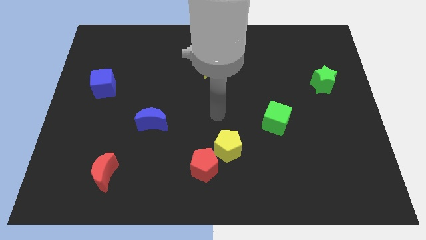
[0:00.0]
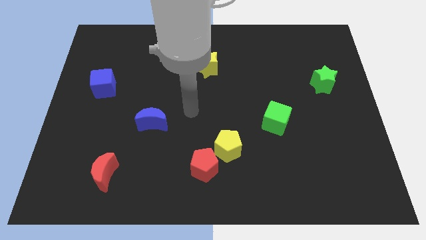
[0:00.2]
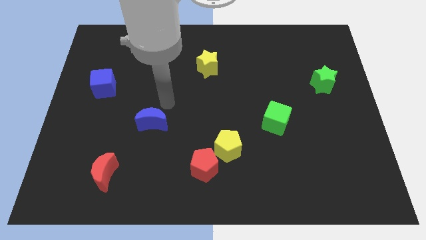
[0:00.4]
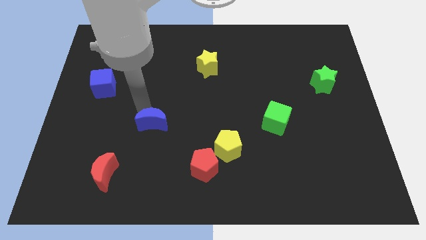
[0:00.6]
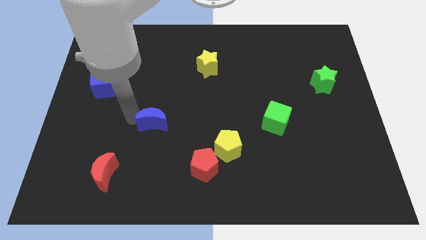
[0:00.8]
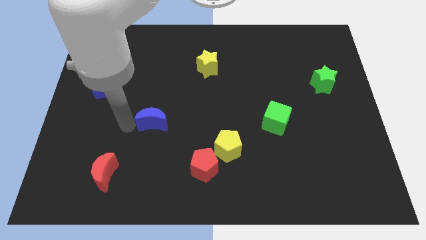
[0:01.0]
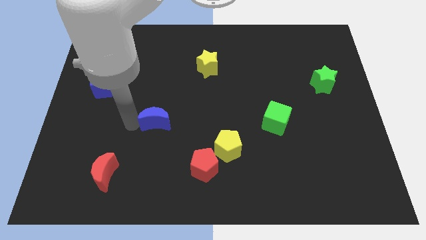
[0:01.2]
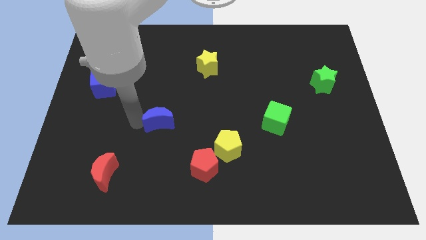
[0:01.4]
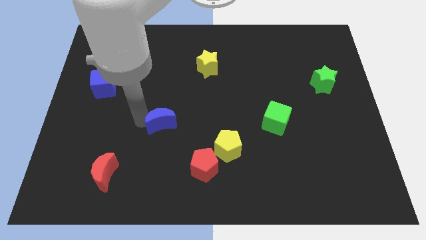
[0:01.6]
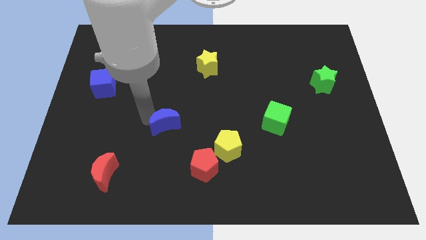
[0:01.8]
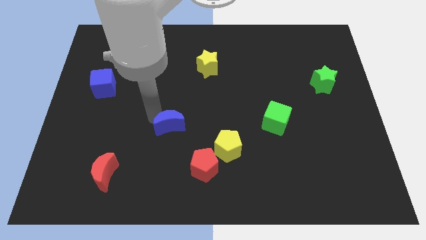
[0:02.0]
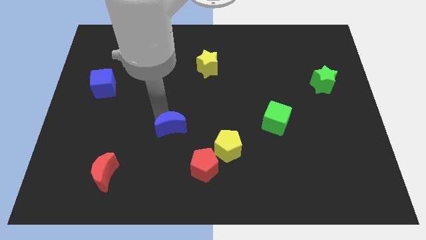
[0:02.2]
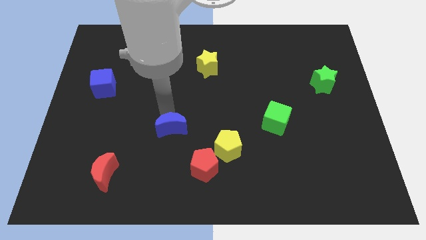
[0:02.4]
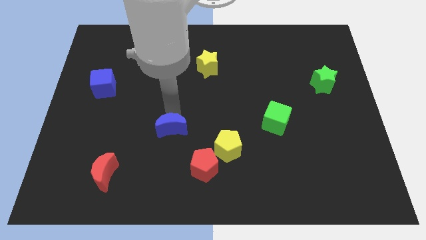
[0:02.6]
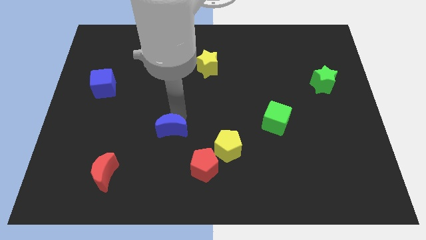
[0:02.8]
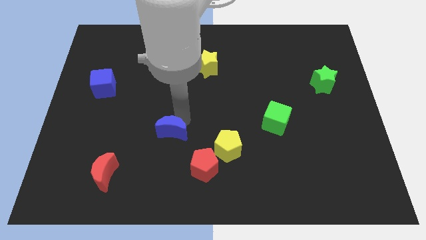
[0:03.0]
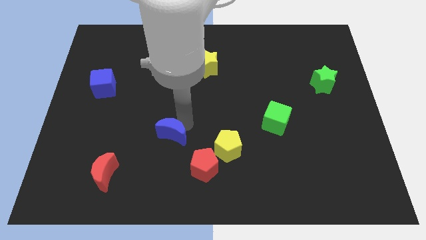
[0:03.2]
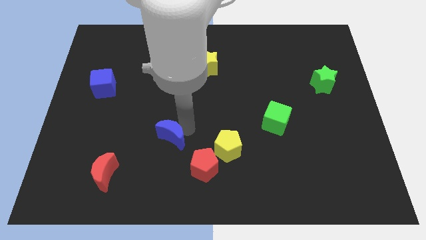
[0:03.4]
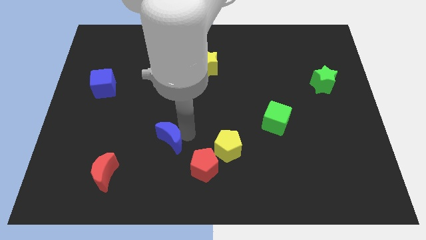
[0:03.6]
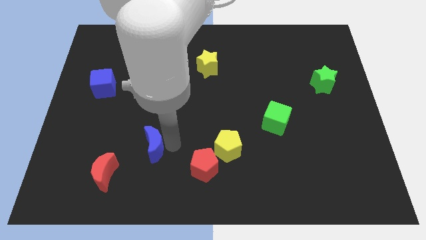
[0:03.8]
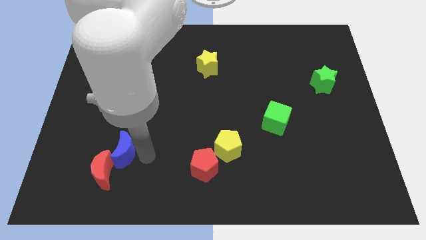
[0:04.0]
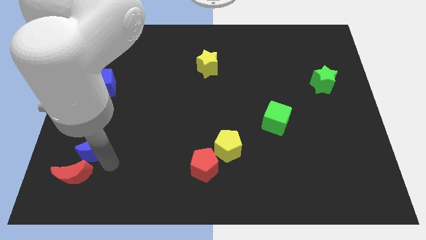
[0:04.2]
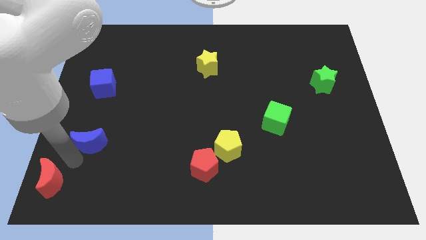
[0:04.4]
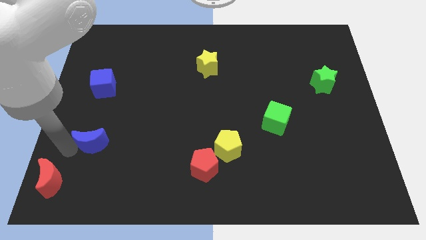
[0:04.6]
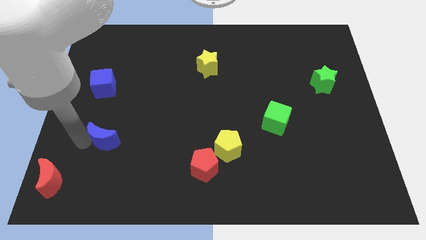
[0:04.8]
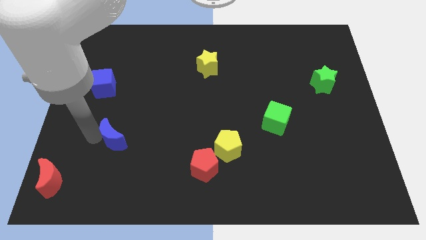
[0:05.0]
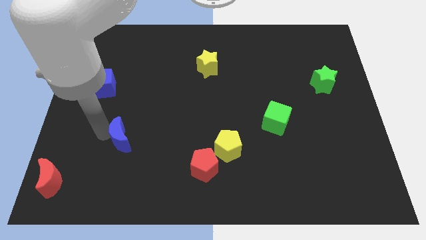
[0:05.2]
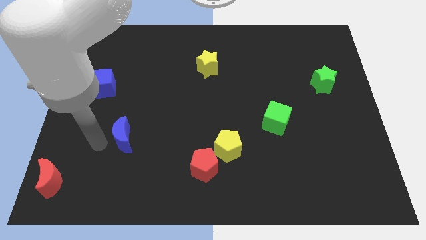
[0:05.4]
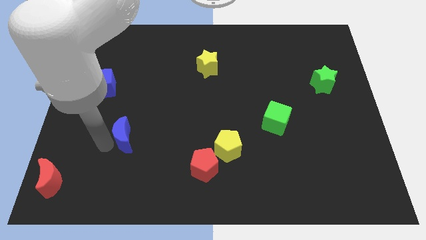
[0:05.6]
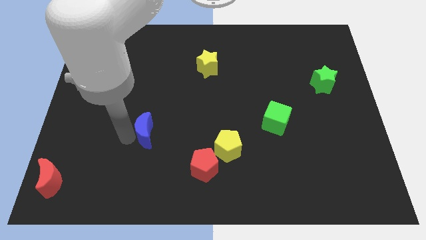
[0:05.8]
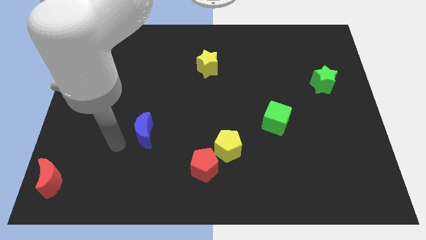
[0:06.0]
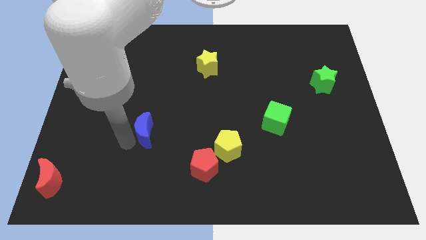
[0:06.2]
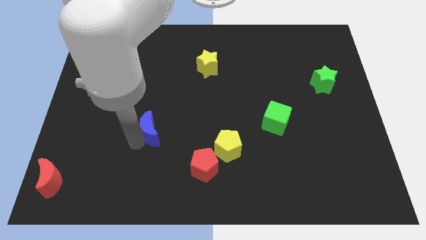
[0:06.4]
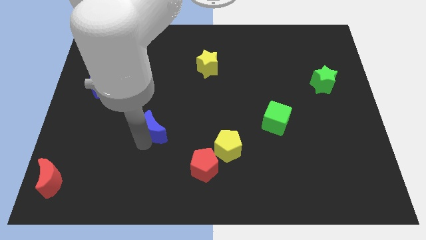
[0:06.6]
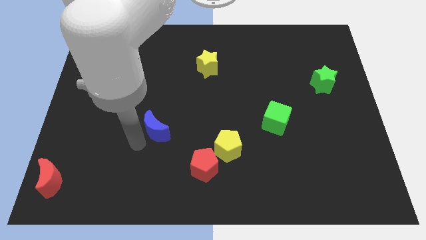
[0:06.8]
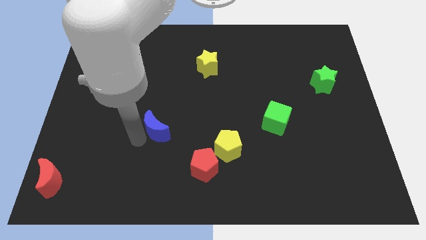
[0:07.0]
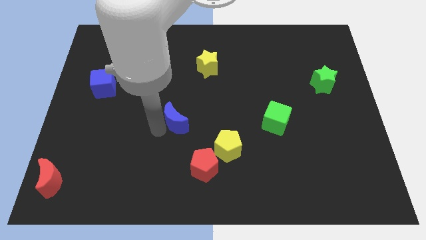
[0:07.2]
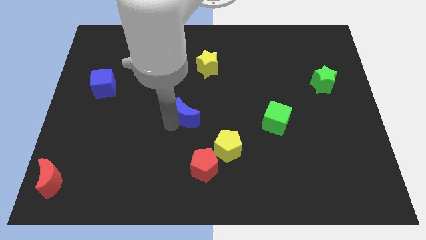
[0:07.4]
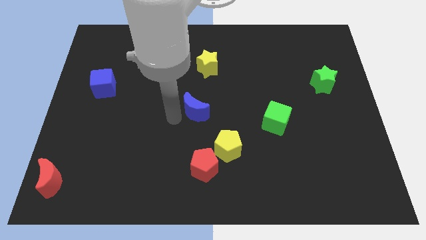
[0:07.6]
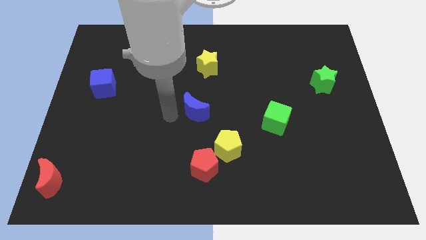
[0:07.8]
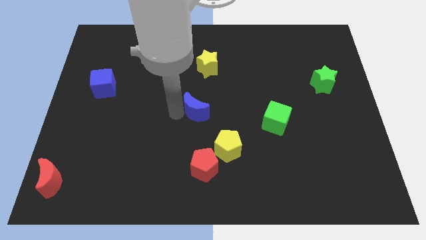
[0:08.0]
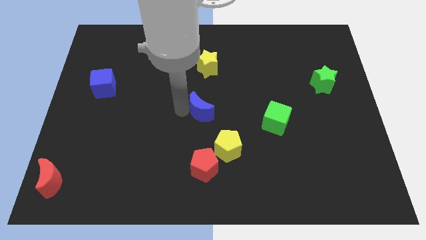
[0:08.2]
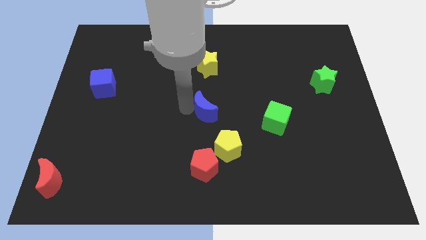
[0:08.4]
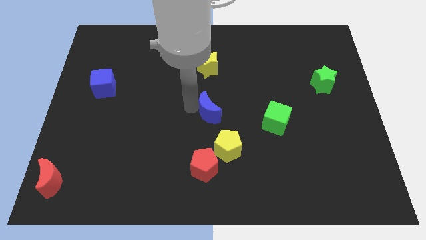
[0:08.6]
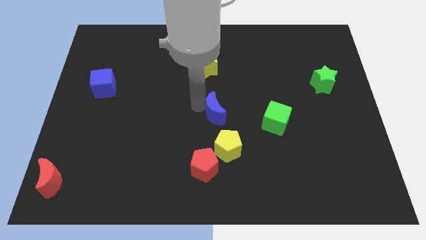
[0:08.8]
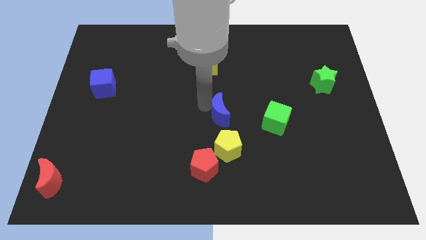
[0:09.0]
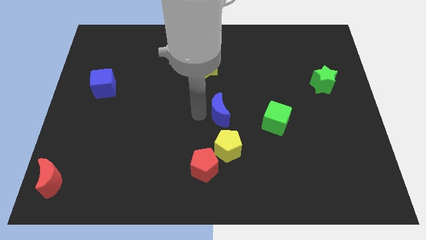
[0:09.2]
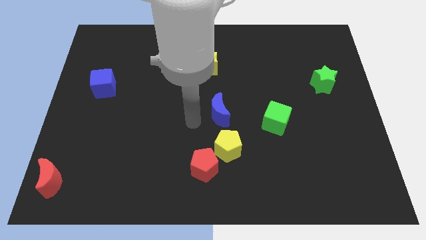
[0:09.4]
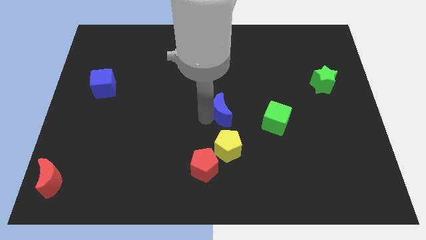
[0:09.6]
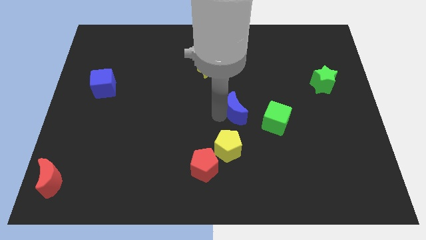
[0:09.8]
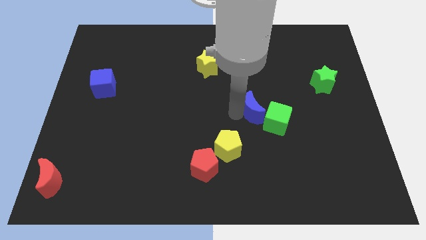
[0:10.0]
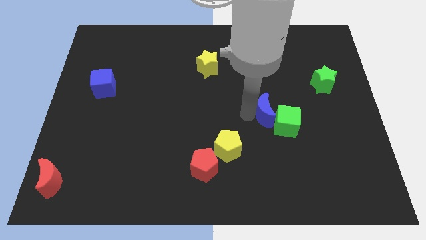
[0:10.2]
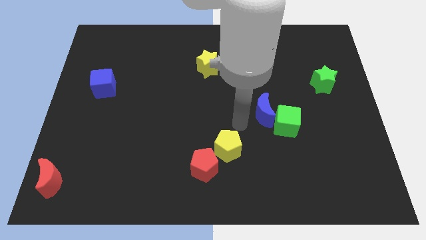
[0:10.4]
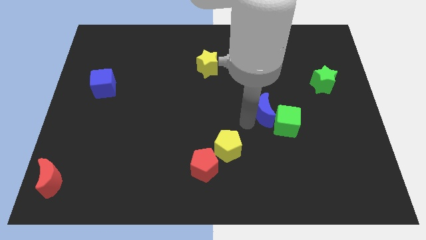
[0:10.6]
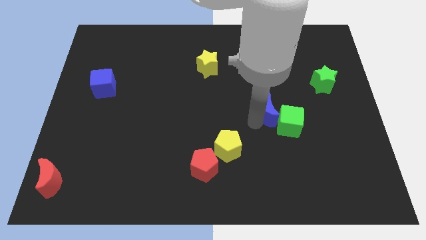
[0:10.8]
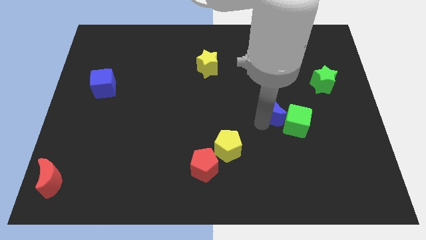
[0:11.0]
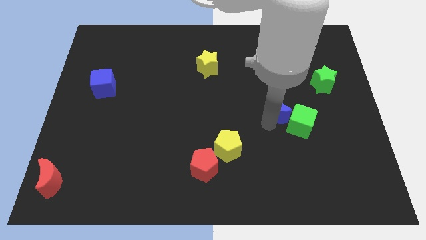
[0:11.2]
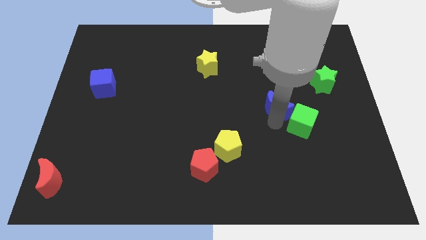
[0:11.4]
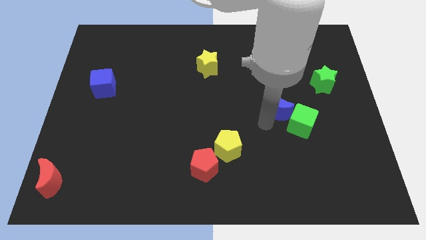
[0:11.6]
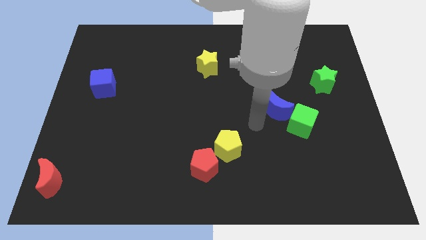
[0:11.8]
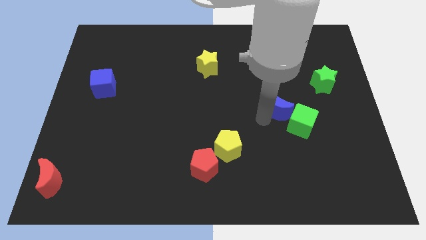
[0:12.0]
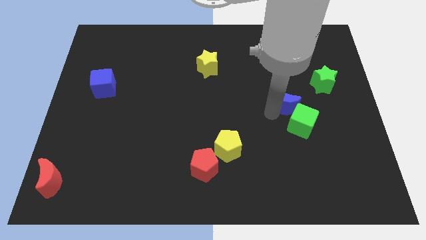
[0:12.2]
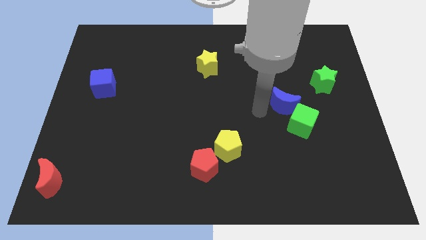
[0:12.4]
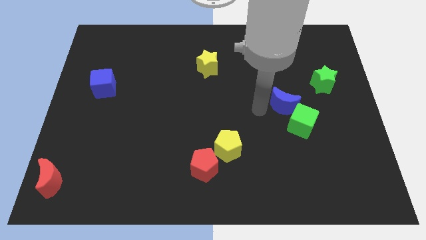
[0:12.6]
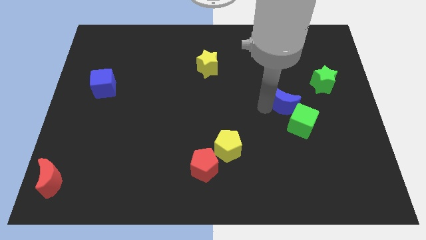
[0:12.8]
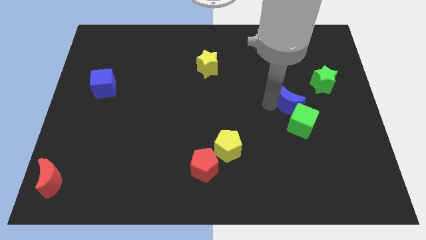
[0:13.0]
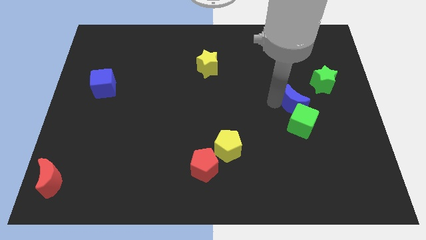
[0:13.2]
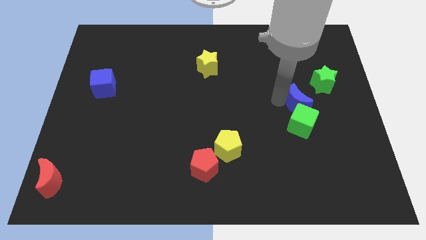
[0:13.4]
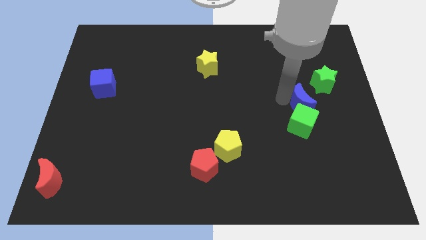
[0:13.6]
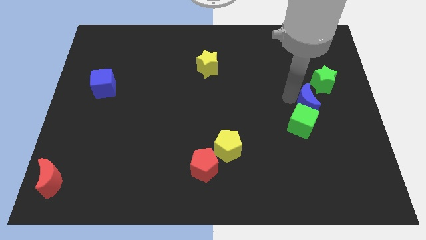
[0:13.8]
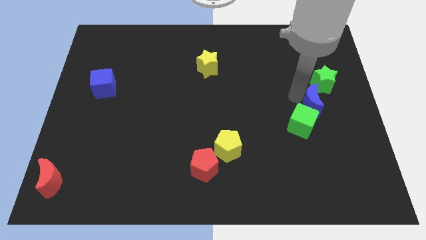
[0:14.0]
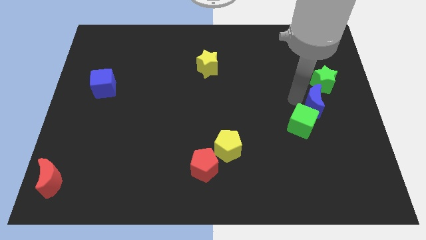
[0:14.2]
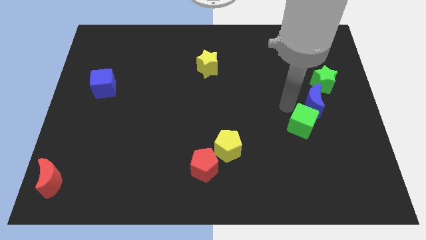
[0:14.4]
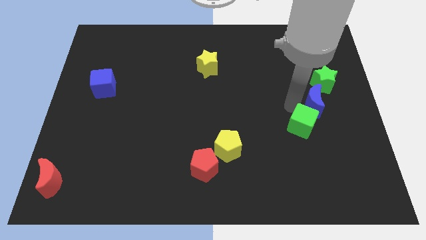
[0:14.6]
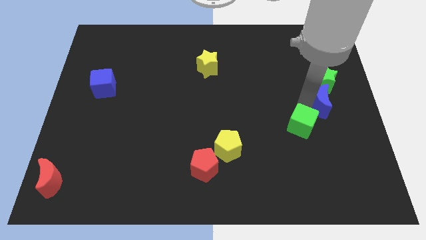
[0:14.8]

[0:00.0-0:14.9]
slide the blue moon to the center right
